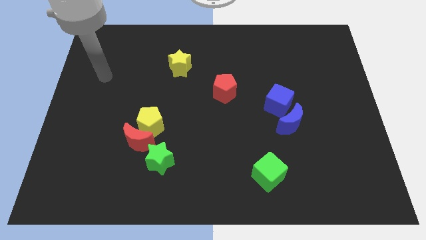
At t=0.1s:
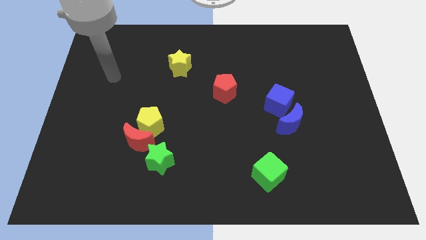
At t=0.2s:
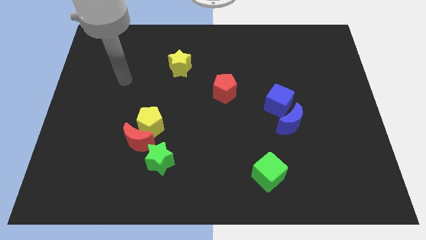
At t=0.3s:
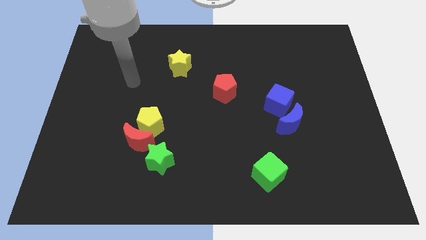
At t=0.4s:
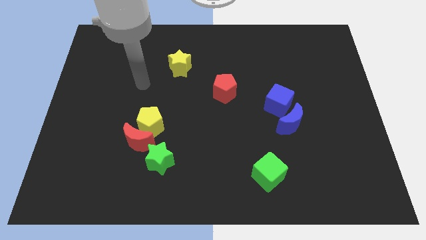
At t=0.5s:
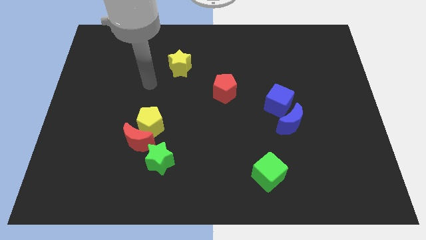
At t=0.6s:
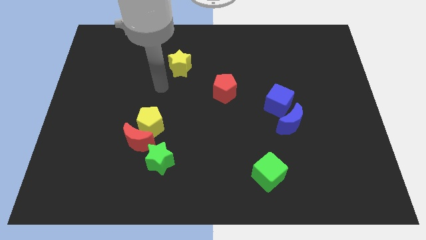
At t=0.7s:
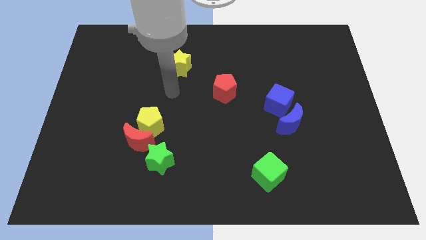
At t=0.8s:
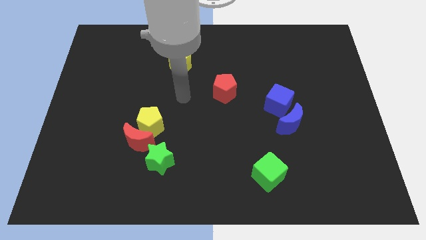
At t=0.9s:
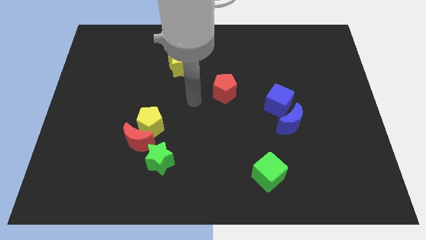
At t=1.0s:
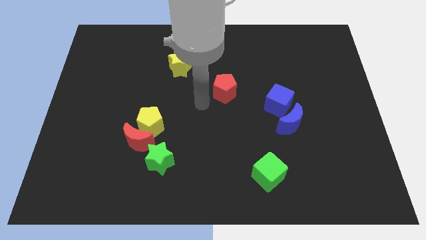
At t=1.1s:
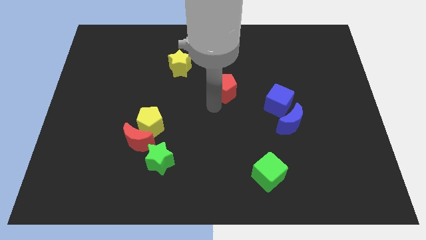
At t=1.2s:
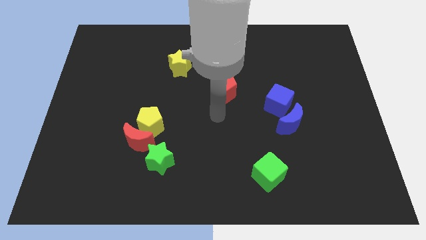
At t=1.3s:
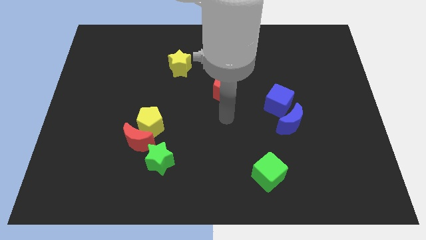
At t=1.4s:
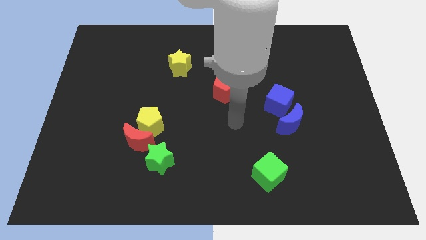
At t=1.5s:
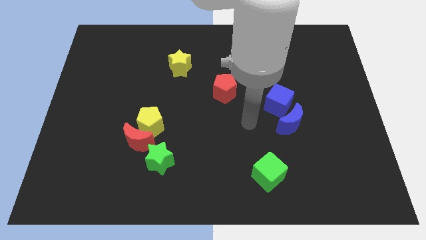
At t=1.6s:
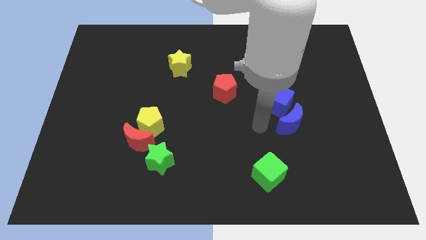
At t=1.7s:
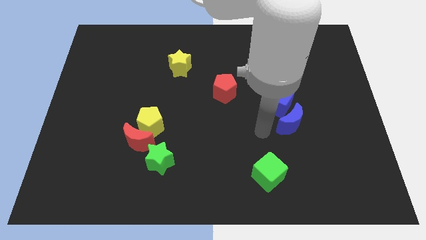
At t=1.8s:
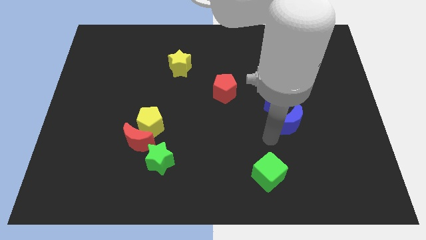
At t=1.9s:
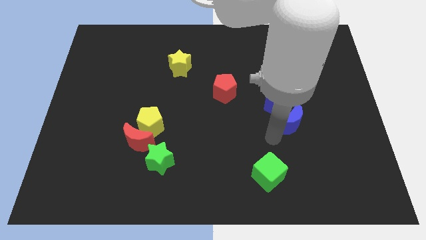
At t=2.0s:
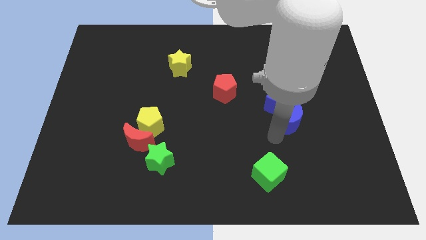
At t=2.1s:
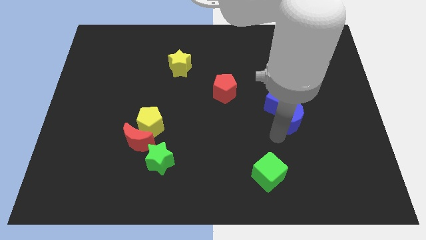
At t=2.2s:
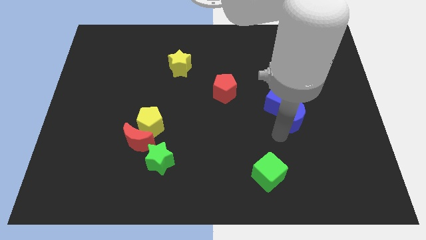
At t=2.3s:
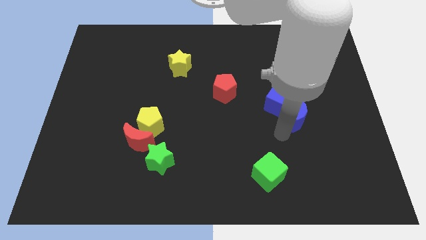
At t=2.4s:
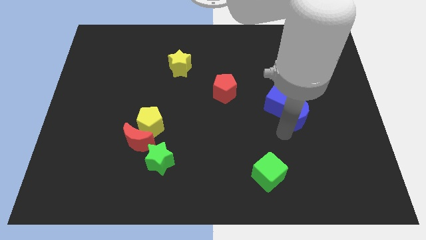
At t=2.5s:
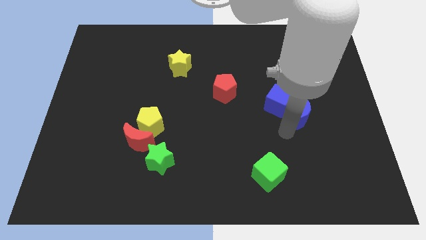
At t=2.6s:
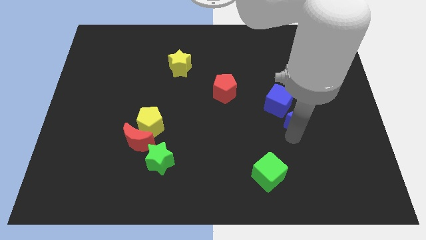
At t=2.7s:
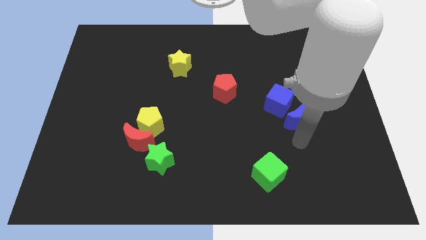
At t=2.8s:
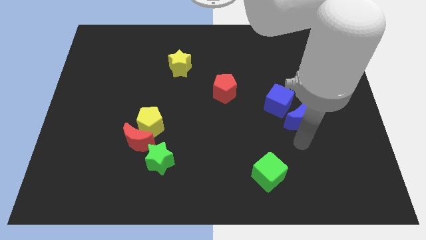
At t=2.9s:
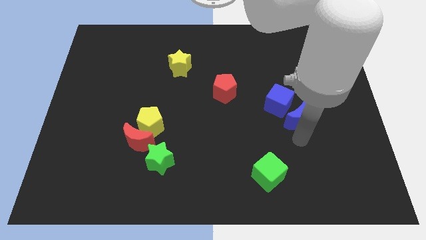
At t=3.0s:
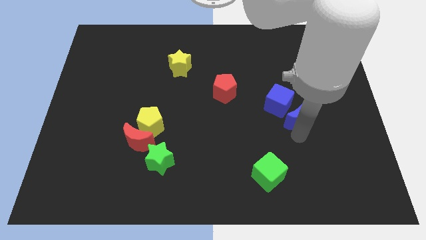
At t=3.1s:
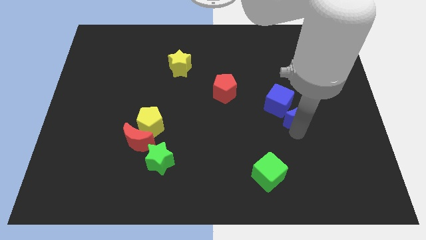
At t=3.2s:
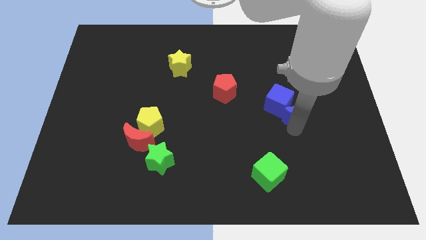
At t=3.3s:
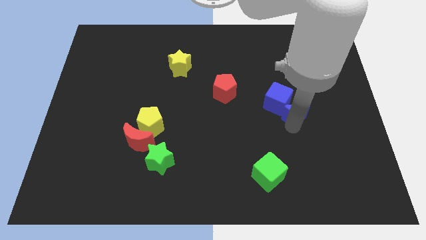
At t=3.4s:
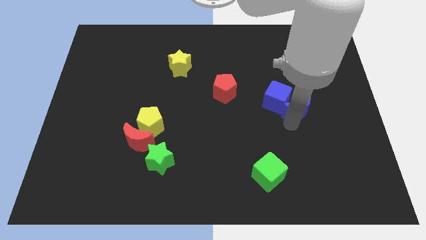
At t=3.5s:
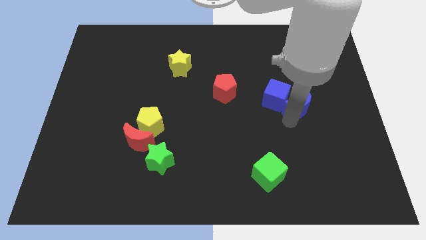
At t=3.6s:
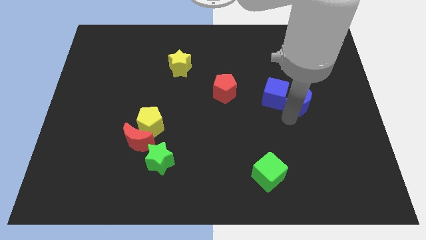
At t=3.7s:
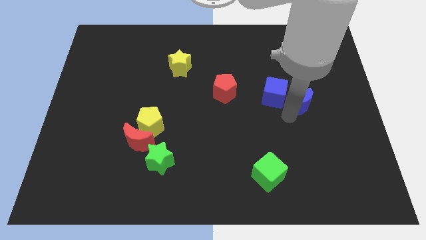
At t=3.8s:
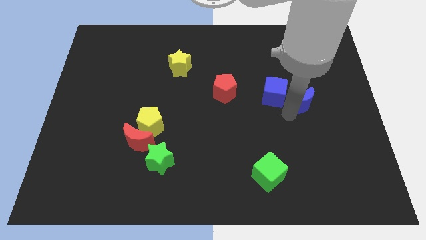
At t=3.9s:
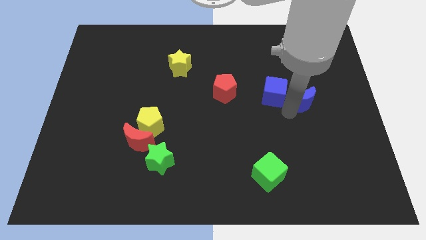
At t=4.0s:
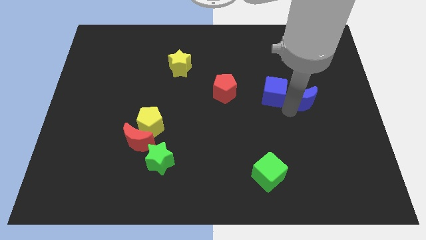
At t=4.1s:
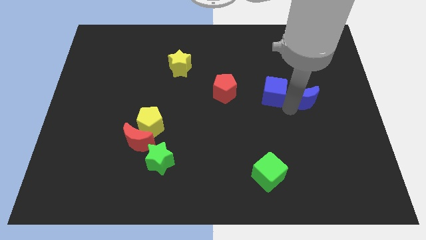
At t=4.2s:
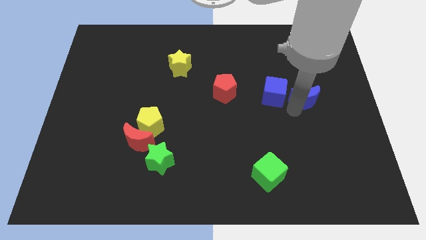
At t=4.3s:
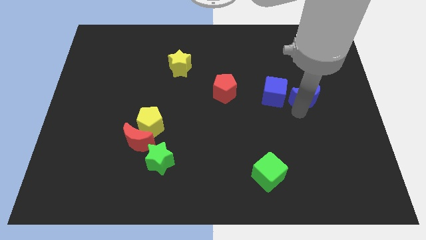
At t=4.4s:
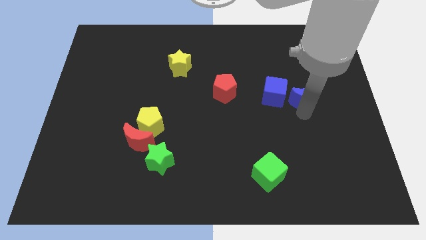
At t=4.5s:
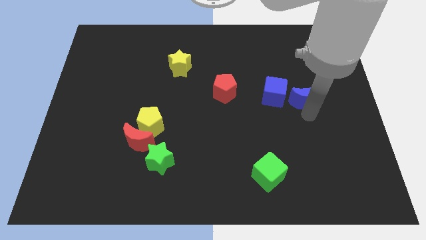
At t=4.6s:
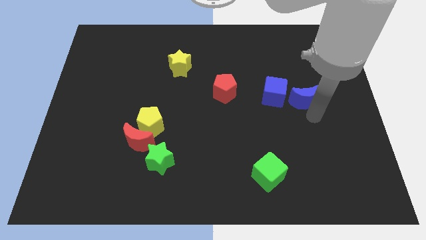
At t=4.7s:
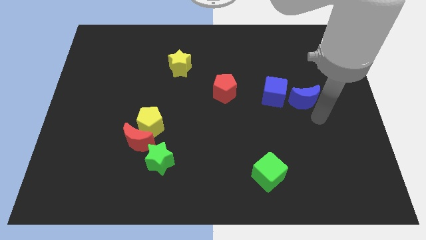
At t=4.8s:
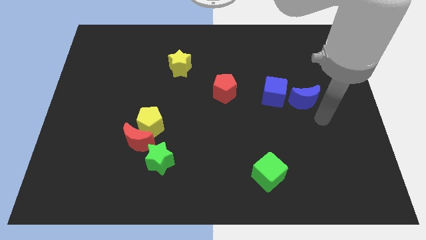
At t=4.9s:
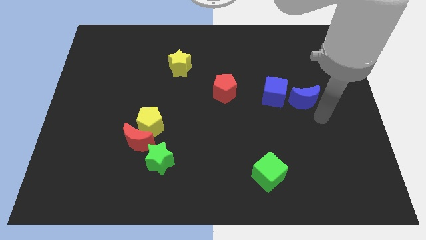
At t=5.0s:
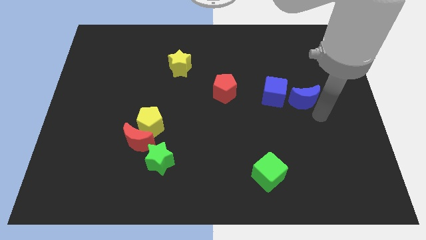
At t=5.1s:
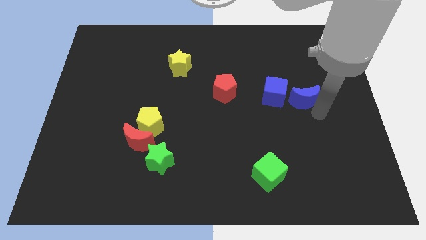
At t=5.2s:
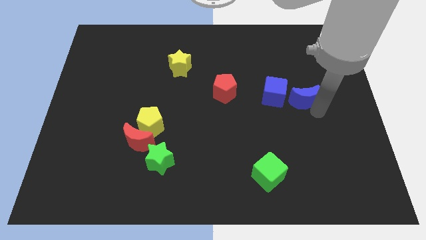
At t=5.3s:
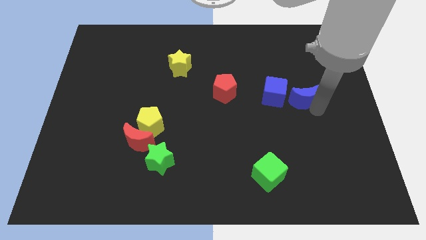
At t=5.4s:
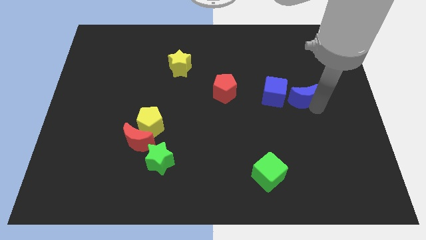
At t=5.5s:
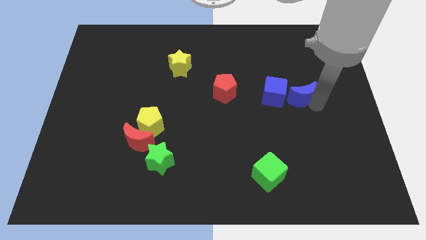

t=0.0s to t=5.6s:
push the blue moon up slightly

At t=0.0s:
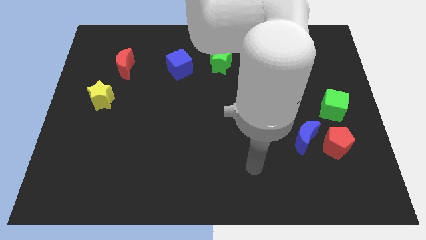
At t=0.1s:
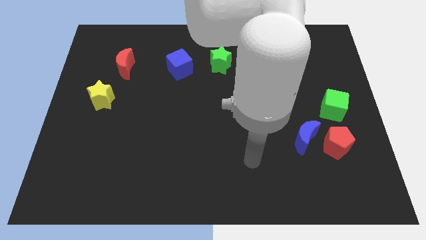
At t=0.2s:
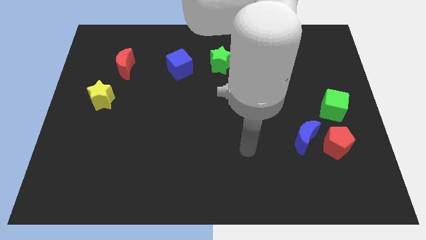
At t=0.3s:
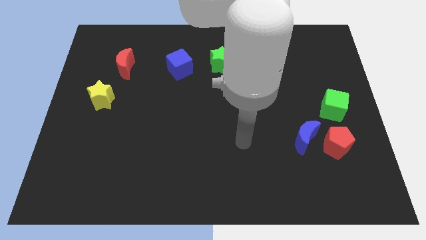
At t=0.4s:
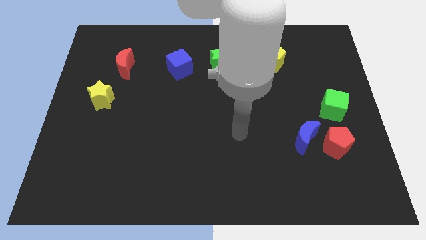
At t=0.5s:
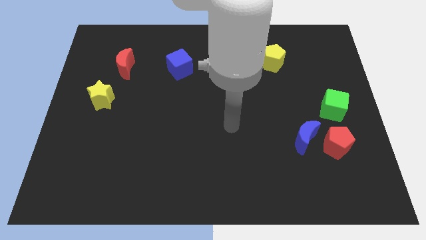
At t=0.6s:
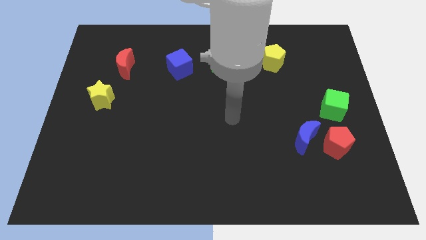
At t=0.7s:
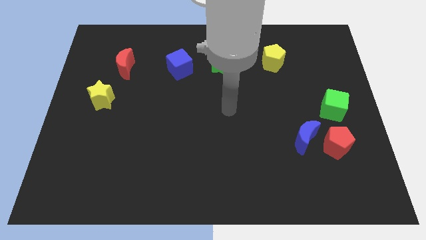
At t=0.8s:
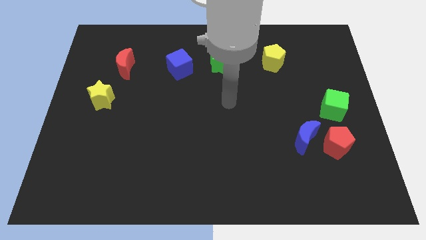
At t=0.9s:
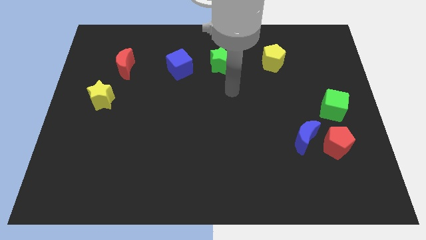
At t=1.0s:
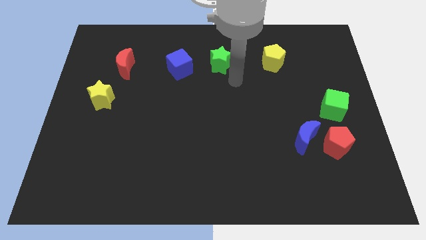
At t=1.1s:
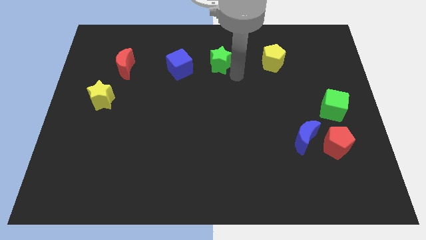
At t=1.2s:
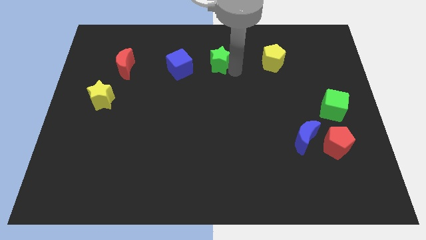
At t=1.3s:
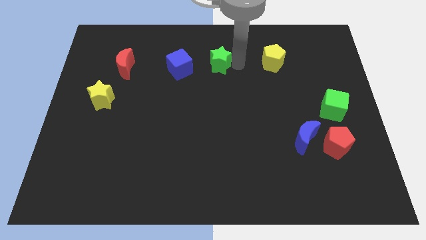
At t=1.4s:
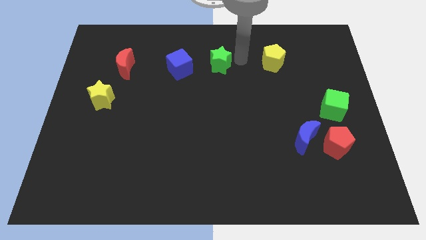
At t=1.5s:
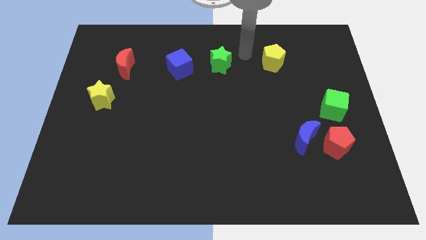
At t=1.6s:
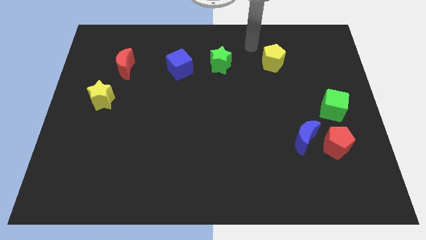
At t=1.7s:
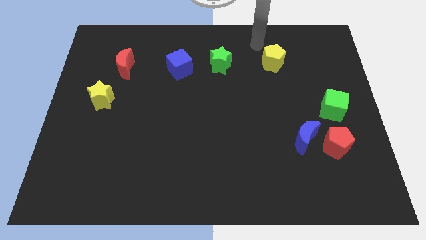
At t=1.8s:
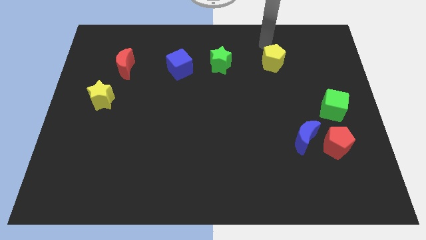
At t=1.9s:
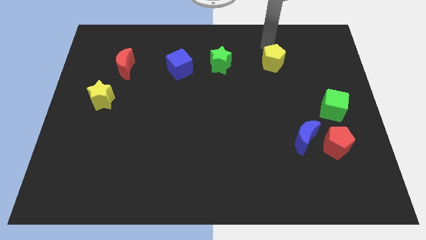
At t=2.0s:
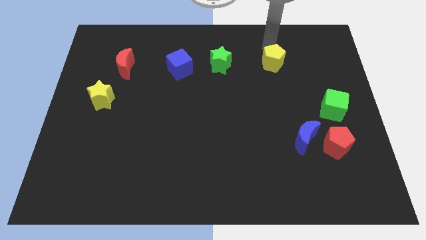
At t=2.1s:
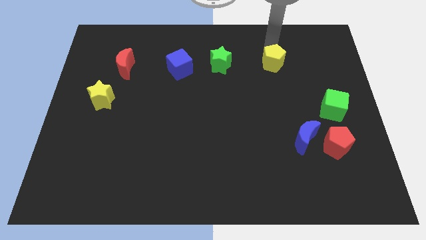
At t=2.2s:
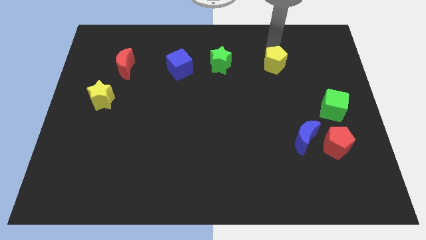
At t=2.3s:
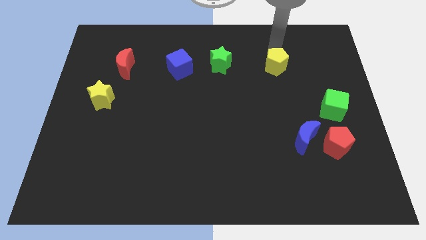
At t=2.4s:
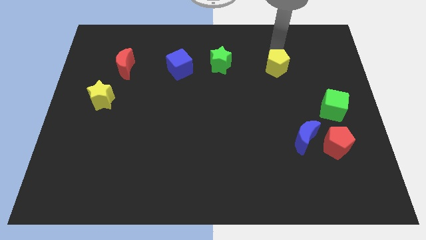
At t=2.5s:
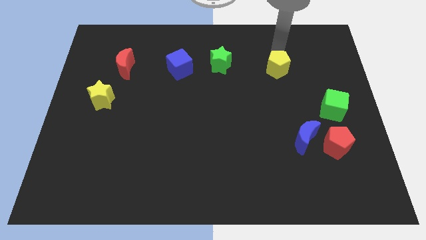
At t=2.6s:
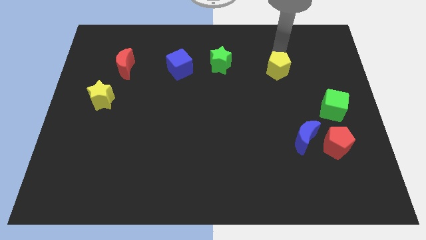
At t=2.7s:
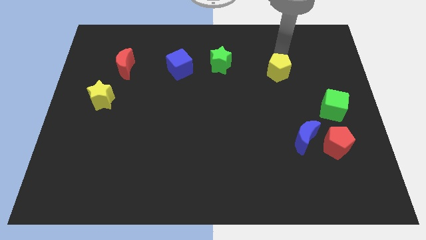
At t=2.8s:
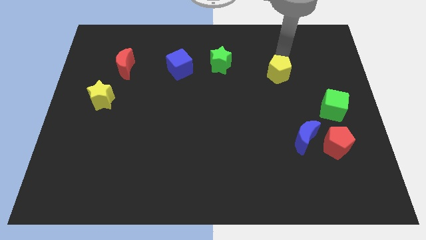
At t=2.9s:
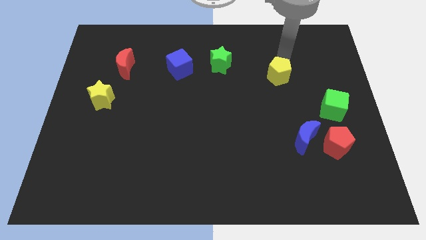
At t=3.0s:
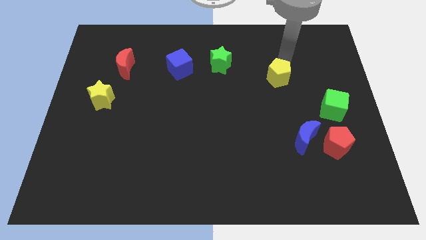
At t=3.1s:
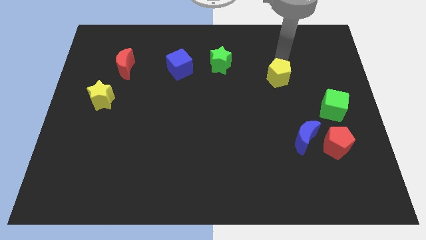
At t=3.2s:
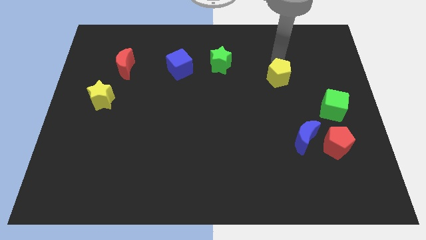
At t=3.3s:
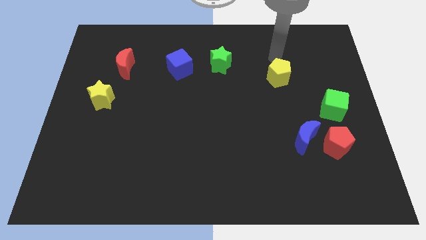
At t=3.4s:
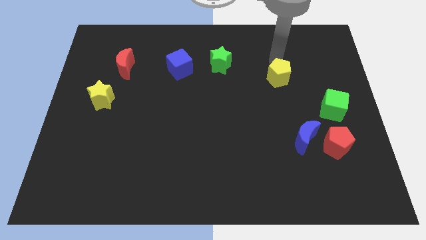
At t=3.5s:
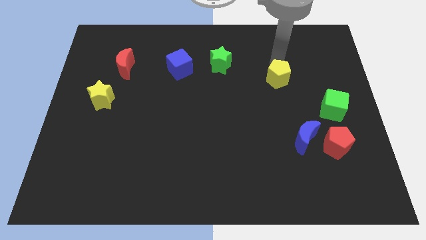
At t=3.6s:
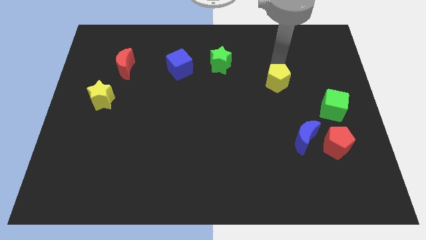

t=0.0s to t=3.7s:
move the yellow pentagon down a little
